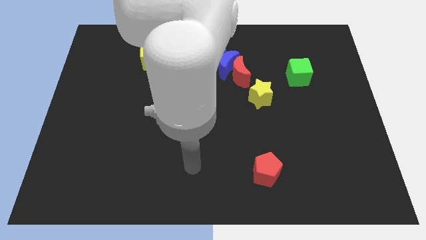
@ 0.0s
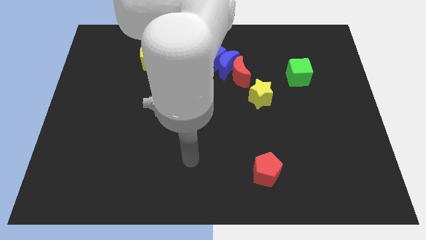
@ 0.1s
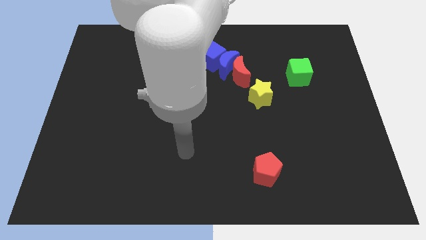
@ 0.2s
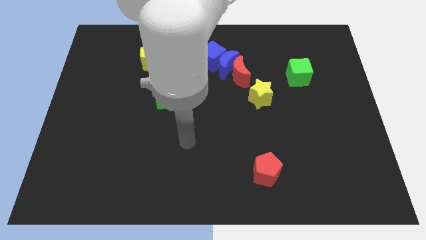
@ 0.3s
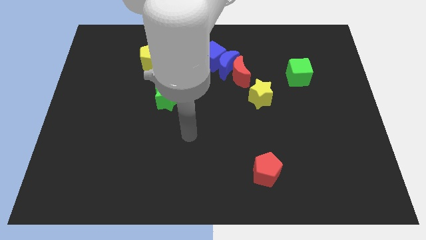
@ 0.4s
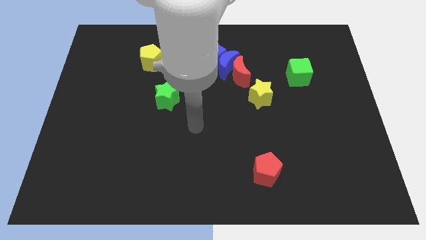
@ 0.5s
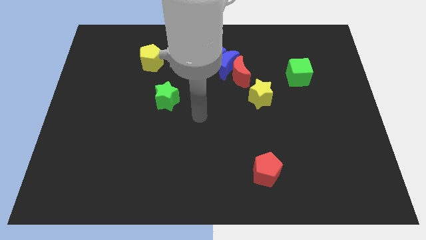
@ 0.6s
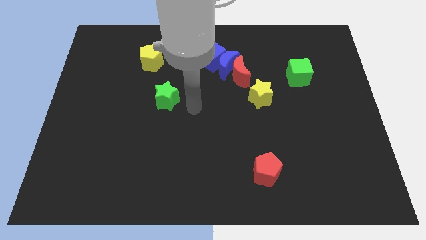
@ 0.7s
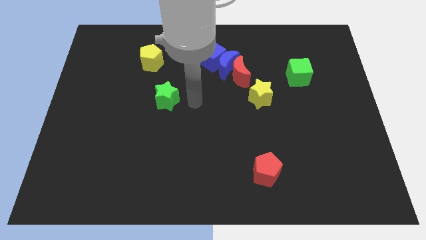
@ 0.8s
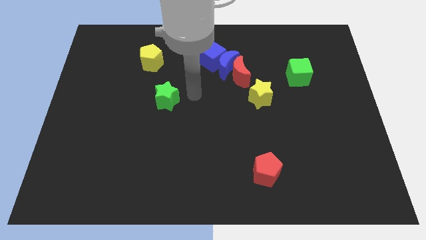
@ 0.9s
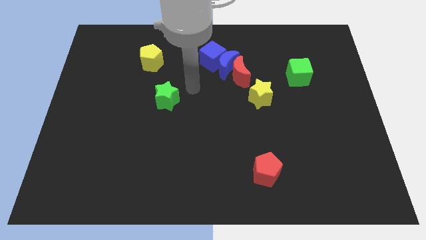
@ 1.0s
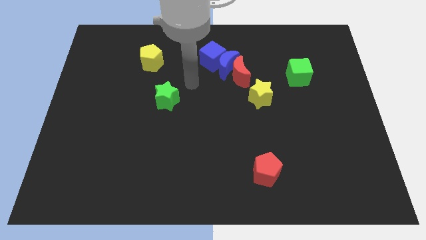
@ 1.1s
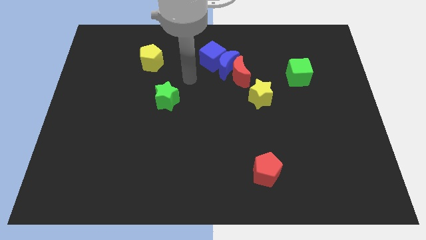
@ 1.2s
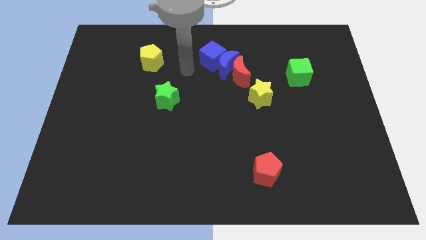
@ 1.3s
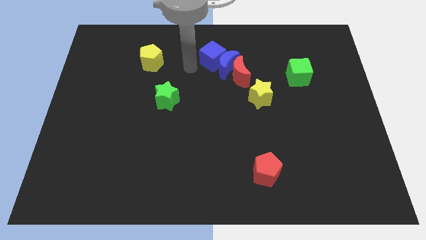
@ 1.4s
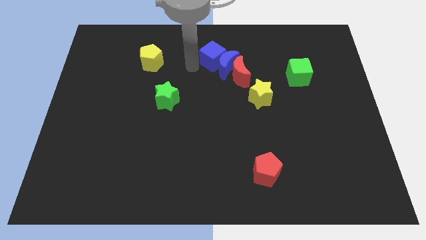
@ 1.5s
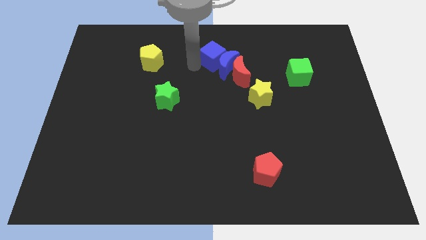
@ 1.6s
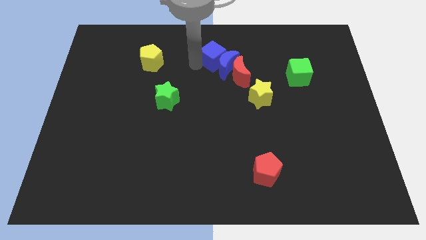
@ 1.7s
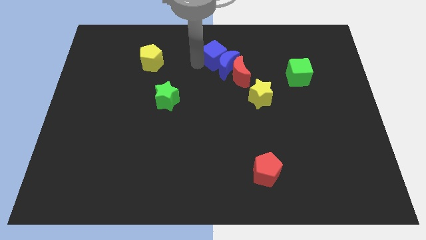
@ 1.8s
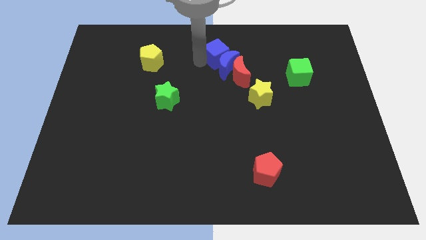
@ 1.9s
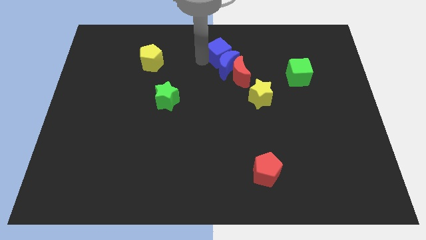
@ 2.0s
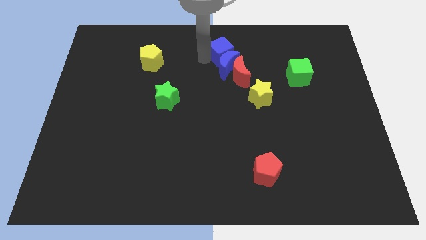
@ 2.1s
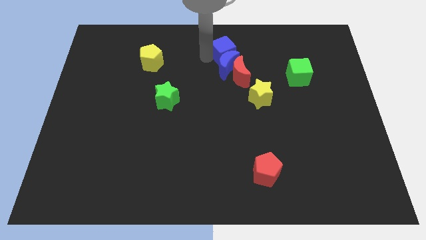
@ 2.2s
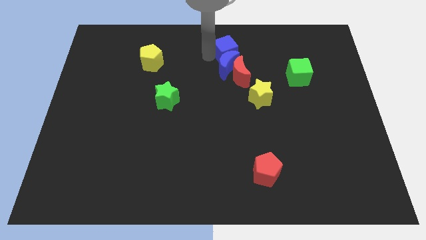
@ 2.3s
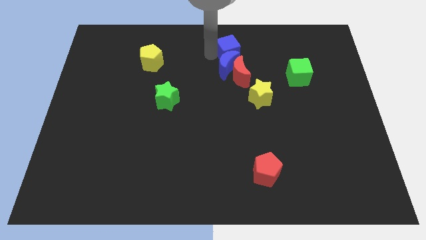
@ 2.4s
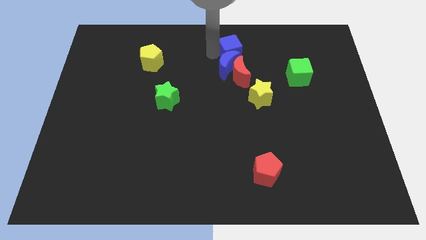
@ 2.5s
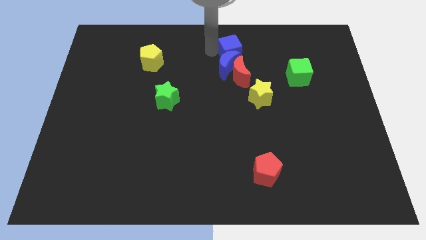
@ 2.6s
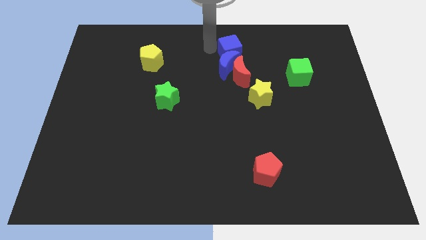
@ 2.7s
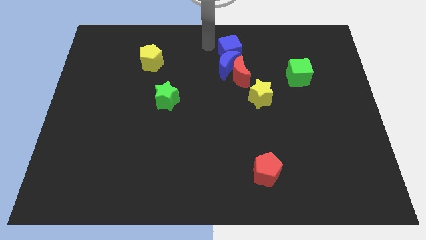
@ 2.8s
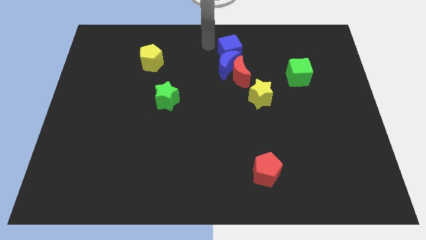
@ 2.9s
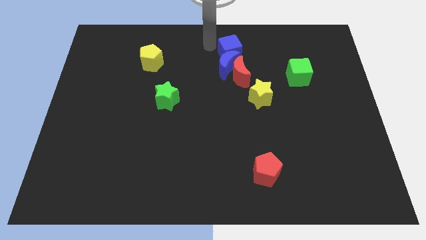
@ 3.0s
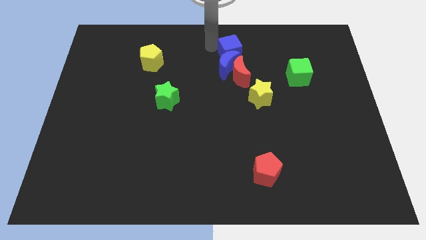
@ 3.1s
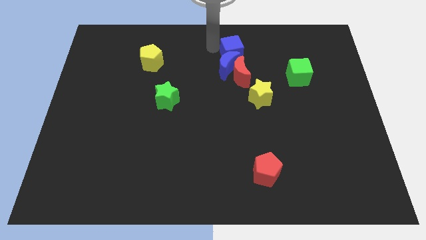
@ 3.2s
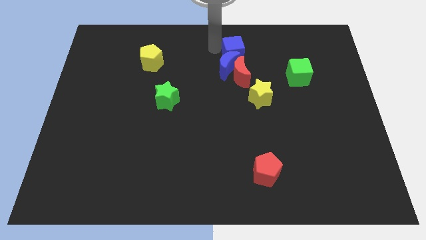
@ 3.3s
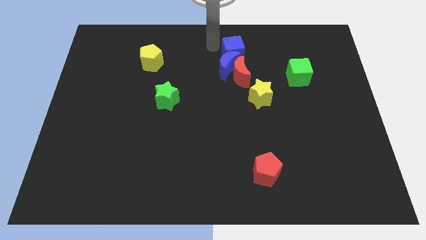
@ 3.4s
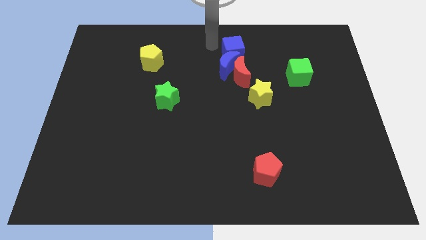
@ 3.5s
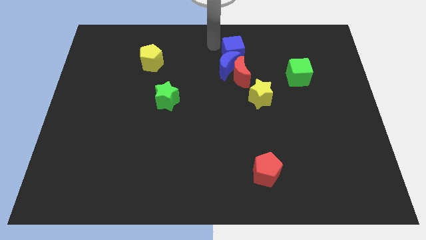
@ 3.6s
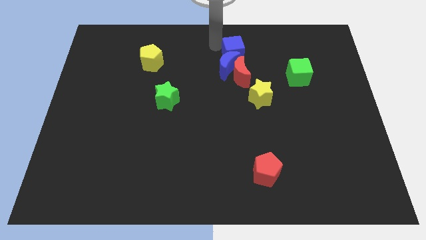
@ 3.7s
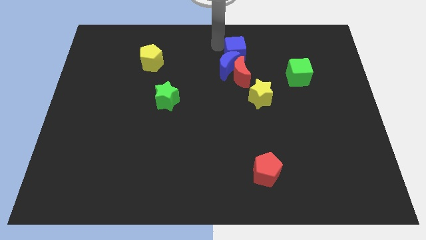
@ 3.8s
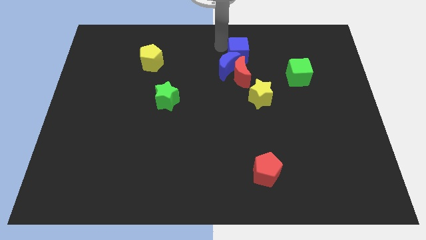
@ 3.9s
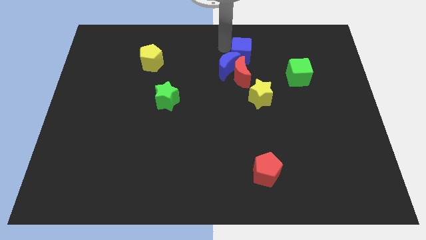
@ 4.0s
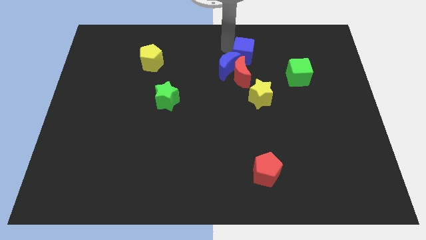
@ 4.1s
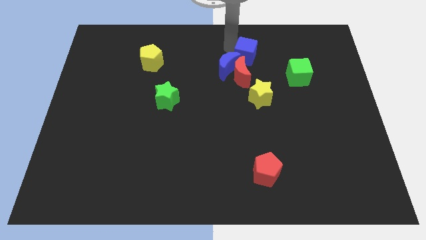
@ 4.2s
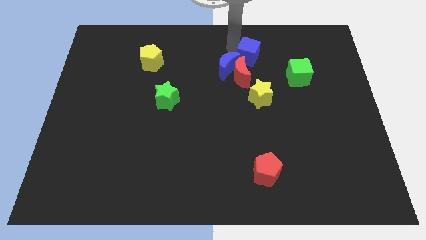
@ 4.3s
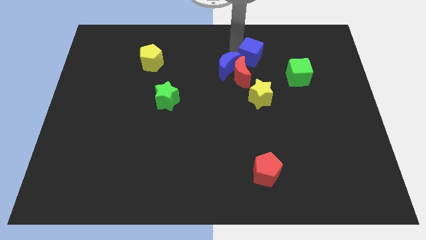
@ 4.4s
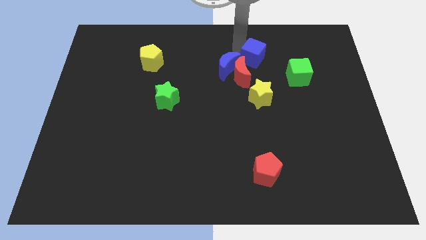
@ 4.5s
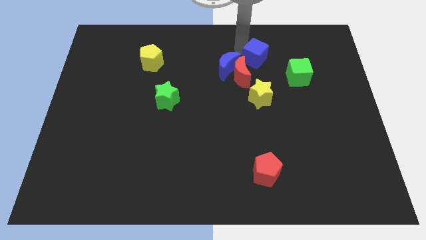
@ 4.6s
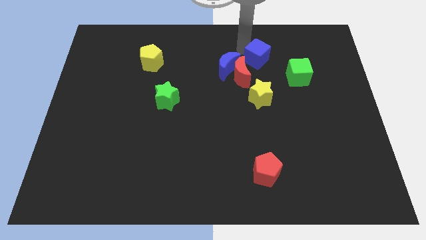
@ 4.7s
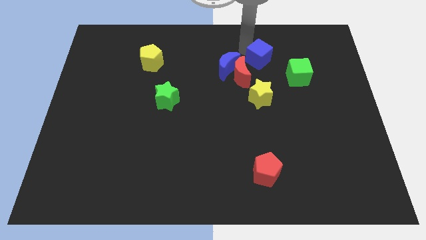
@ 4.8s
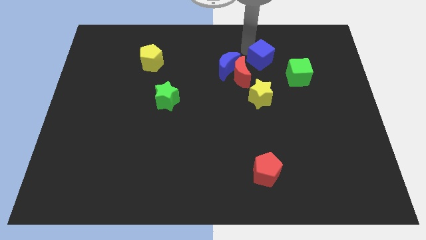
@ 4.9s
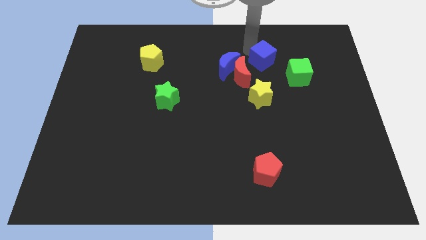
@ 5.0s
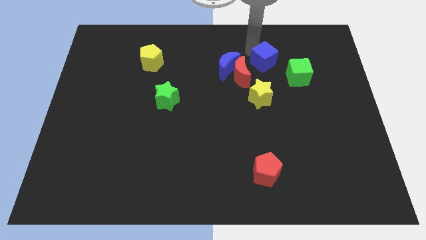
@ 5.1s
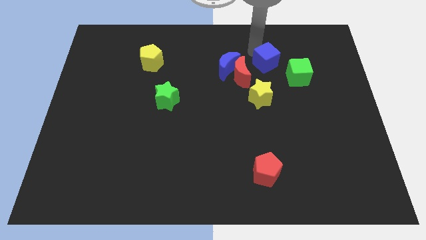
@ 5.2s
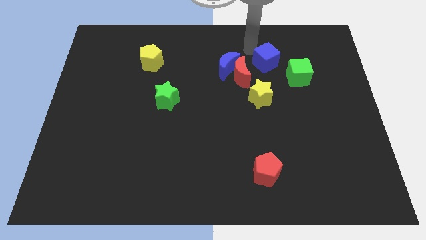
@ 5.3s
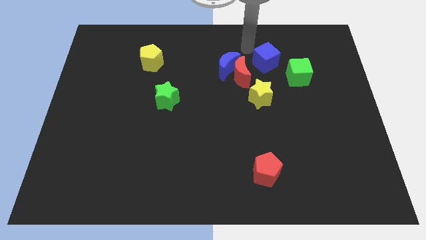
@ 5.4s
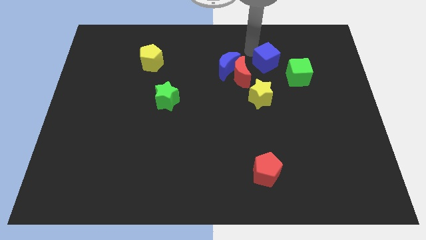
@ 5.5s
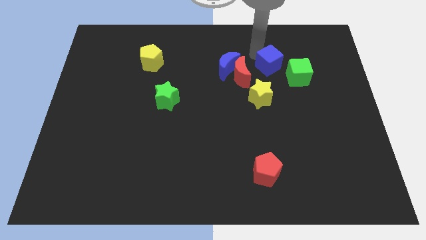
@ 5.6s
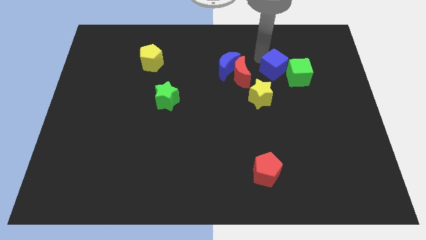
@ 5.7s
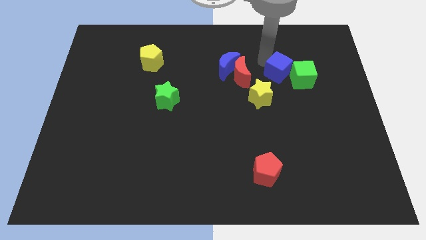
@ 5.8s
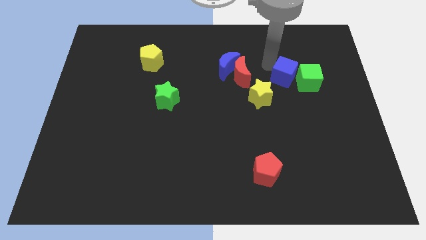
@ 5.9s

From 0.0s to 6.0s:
move the blue cube to the green cube

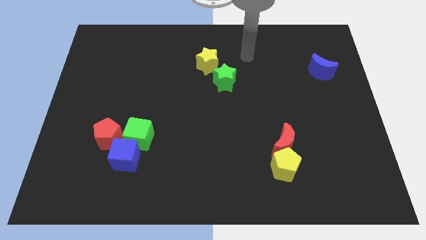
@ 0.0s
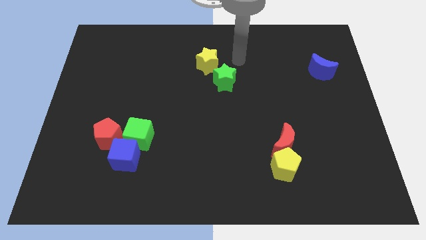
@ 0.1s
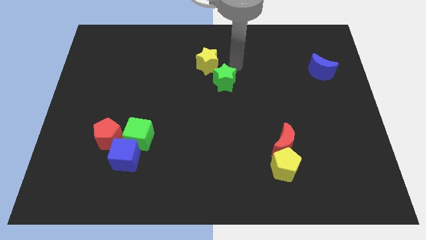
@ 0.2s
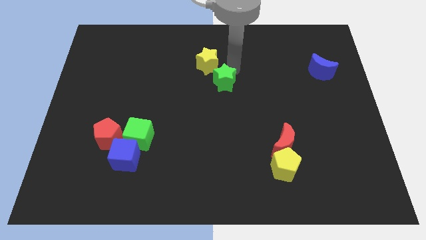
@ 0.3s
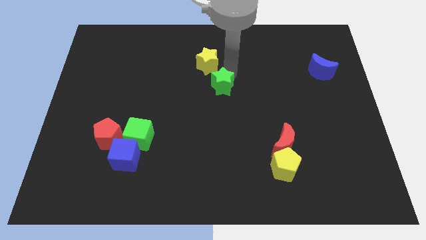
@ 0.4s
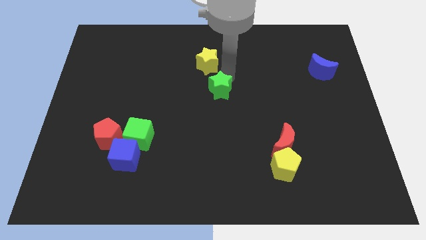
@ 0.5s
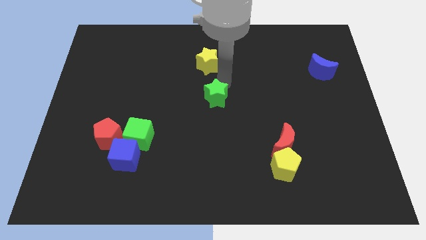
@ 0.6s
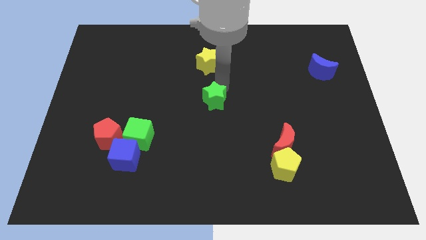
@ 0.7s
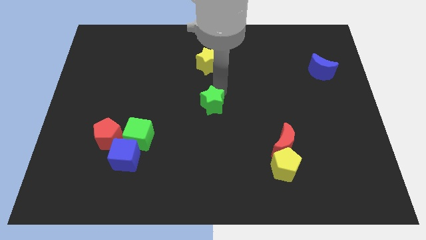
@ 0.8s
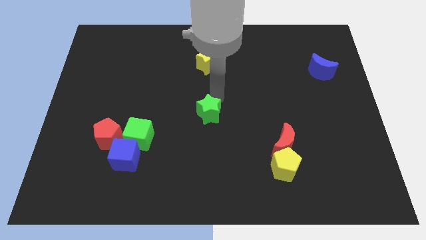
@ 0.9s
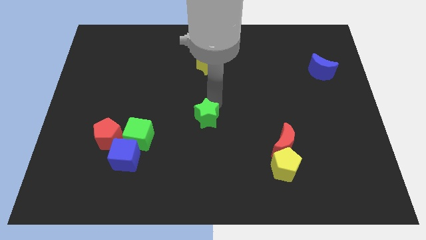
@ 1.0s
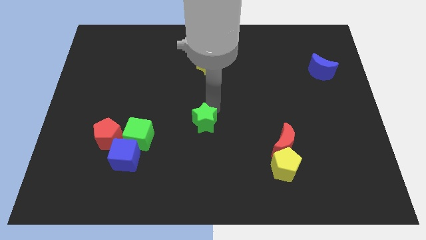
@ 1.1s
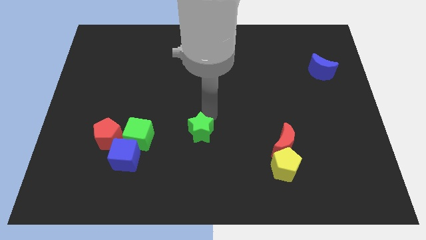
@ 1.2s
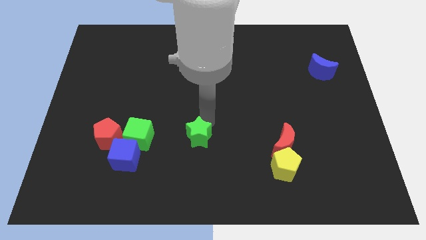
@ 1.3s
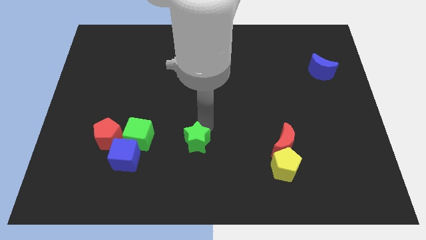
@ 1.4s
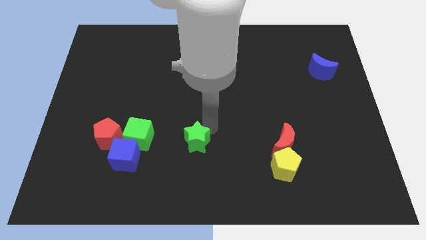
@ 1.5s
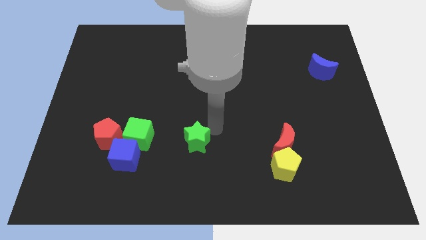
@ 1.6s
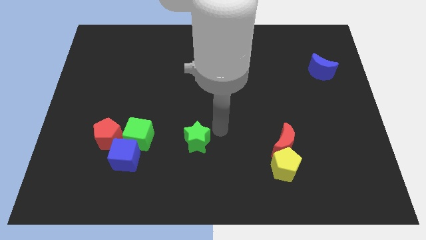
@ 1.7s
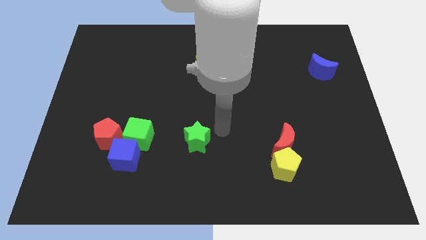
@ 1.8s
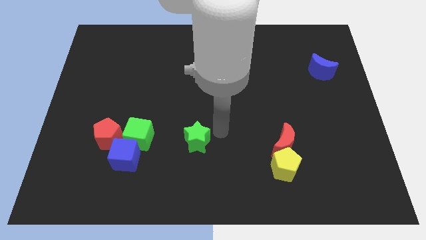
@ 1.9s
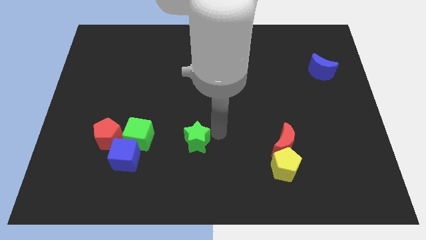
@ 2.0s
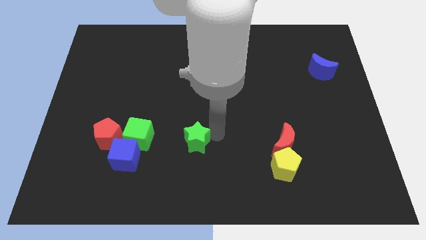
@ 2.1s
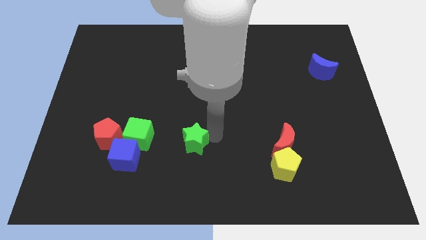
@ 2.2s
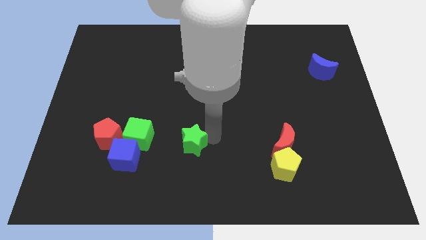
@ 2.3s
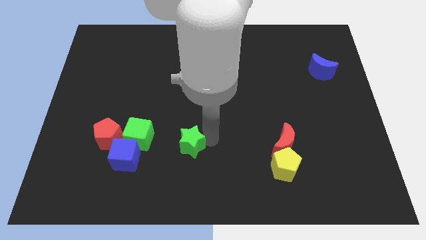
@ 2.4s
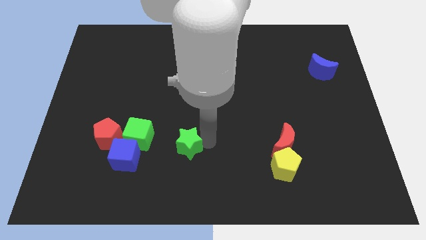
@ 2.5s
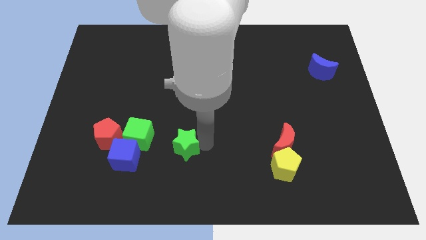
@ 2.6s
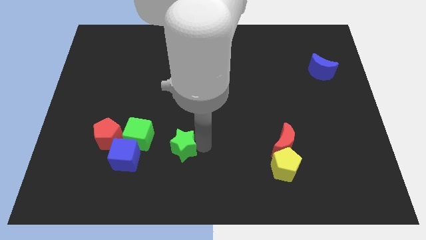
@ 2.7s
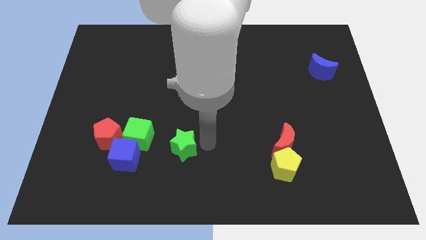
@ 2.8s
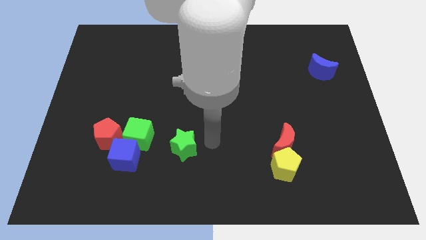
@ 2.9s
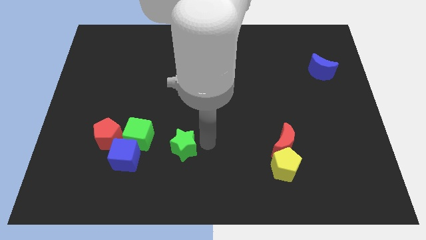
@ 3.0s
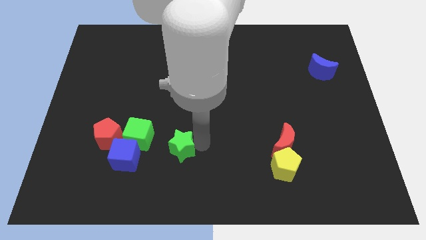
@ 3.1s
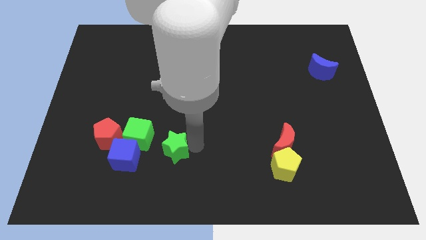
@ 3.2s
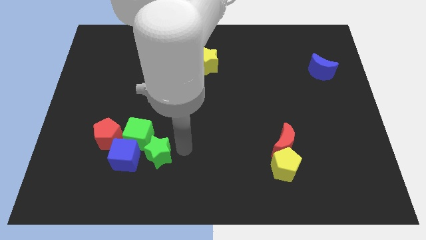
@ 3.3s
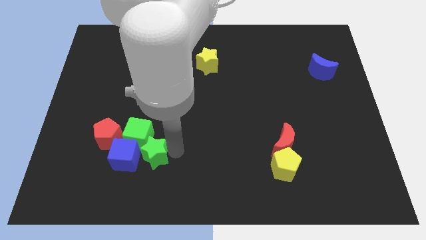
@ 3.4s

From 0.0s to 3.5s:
move the green star to the blue cube
